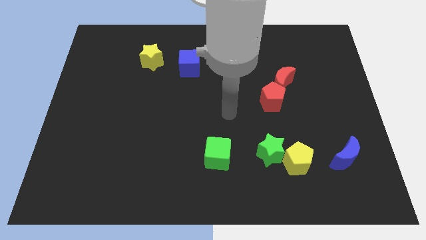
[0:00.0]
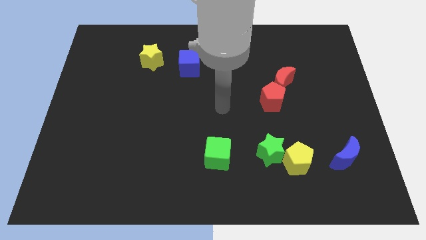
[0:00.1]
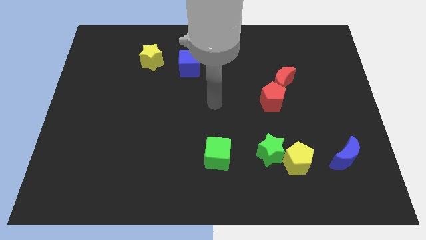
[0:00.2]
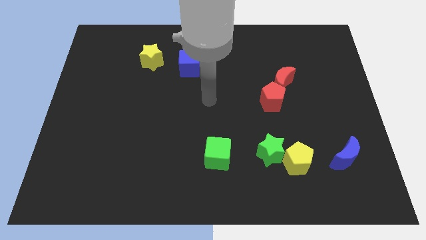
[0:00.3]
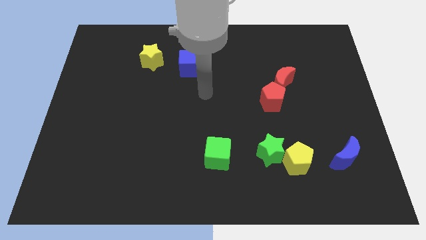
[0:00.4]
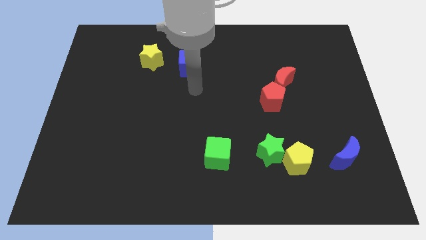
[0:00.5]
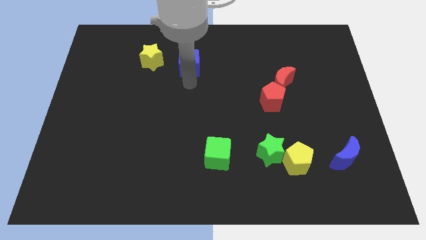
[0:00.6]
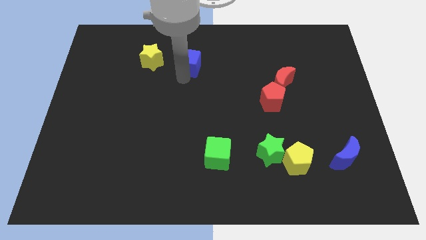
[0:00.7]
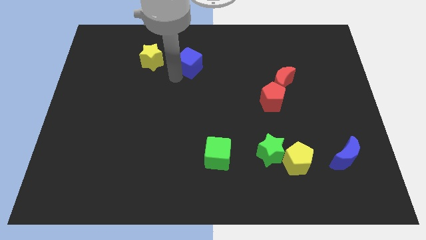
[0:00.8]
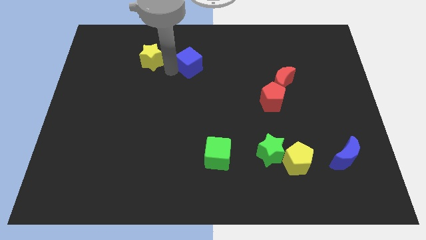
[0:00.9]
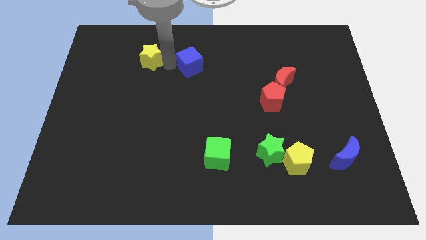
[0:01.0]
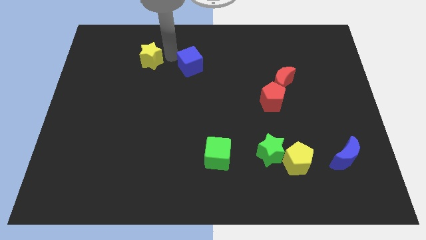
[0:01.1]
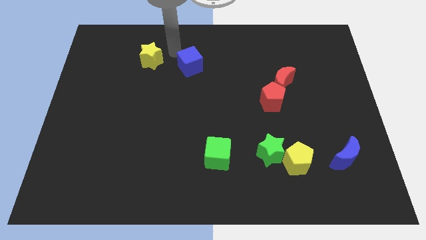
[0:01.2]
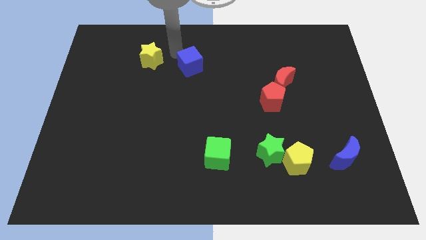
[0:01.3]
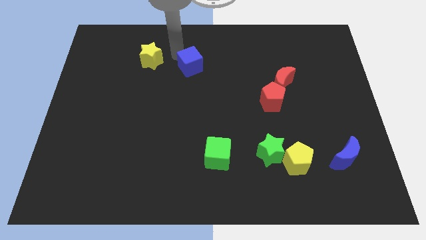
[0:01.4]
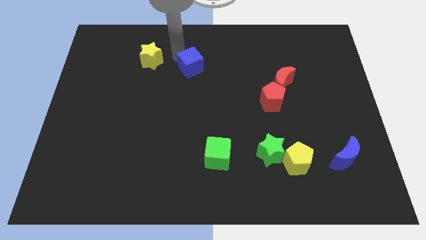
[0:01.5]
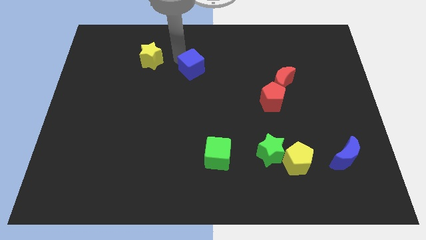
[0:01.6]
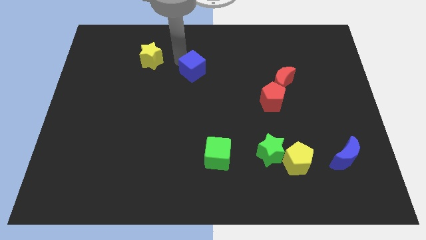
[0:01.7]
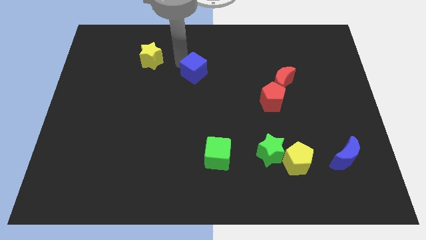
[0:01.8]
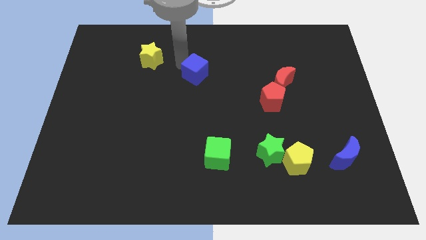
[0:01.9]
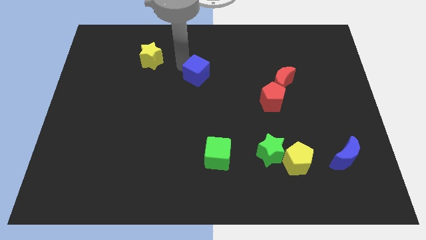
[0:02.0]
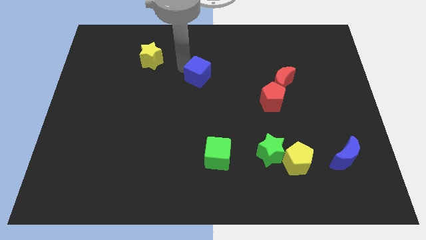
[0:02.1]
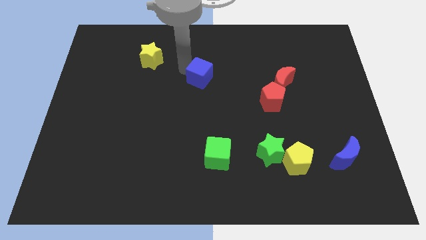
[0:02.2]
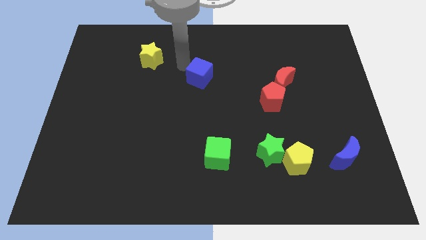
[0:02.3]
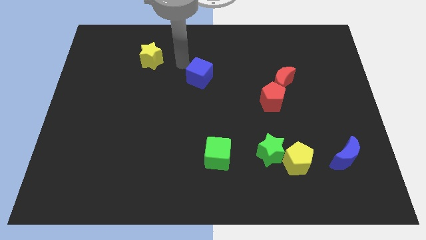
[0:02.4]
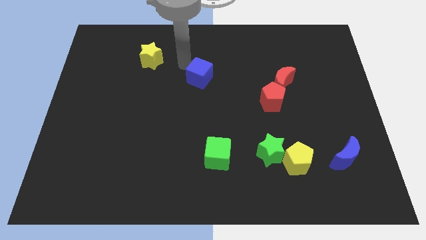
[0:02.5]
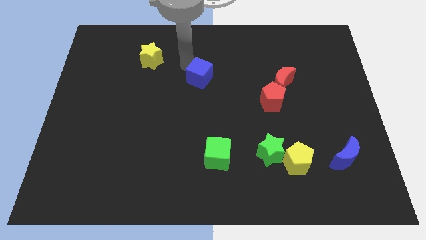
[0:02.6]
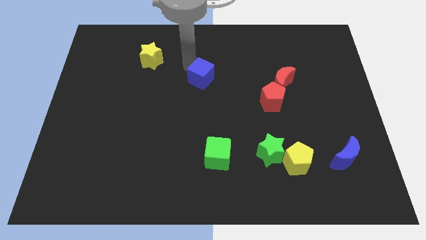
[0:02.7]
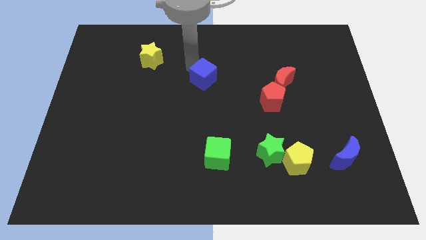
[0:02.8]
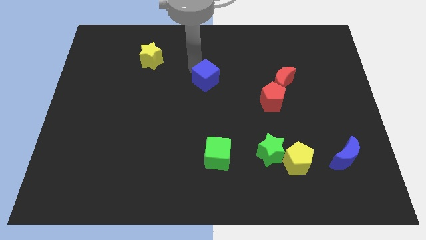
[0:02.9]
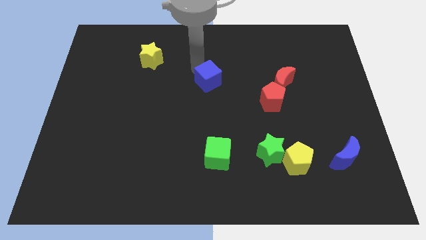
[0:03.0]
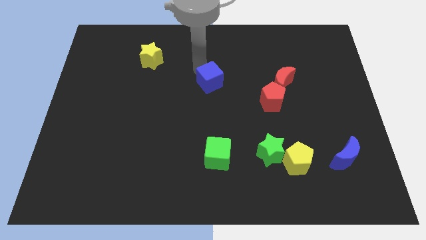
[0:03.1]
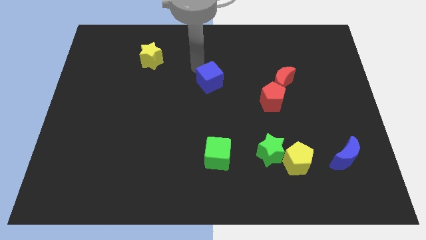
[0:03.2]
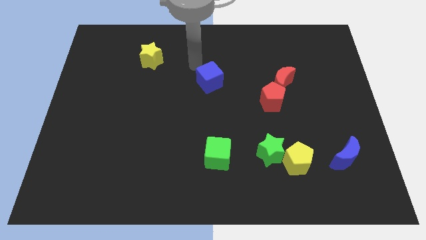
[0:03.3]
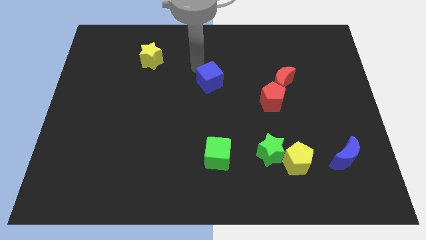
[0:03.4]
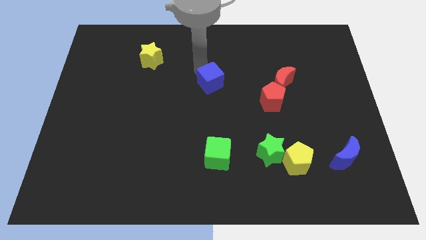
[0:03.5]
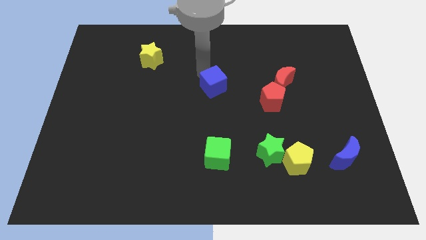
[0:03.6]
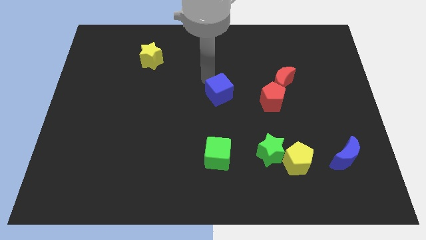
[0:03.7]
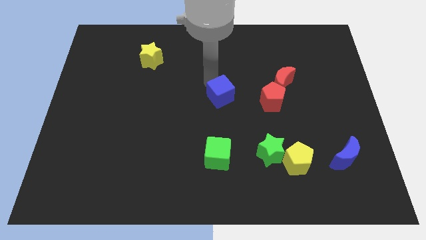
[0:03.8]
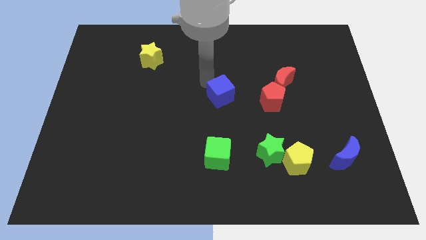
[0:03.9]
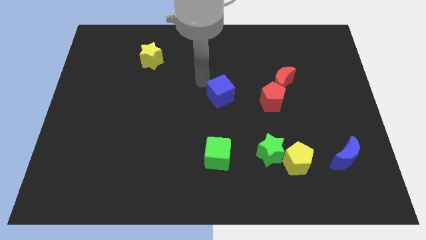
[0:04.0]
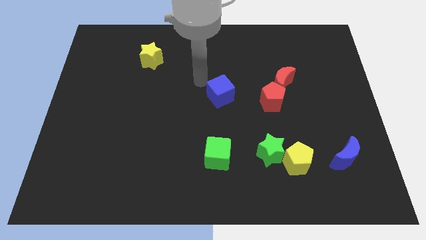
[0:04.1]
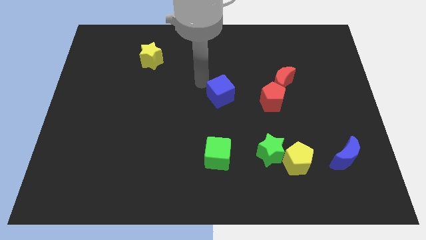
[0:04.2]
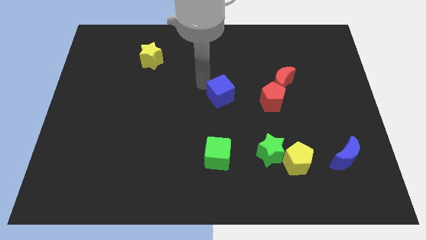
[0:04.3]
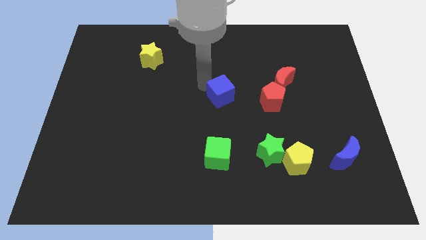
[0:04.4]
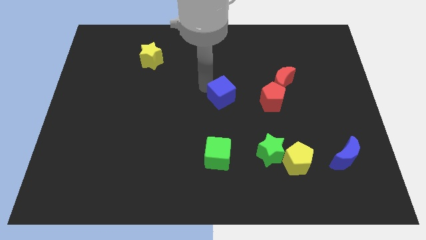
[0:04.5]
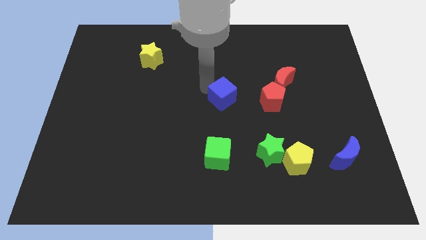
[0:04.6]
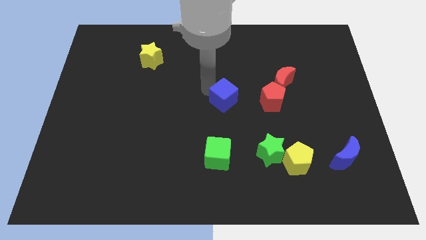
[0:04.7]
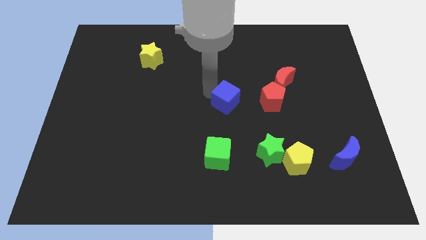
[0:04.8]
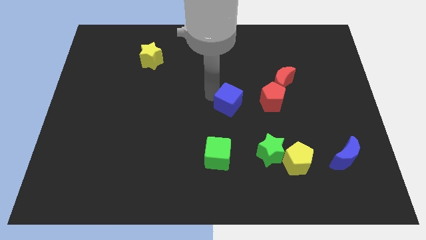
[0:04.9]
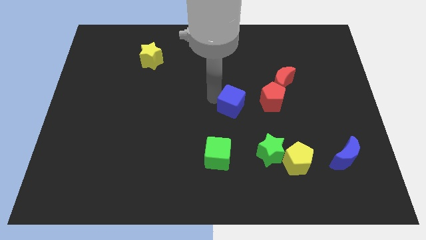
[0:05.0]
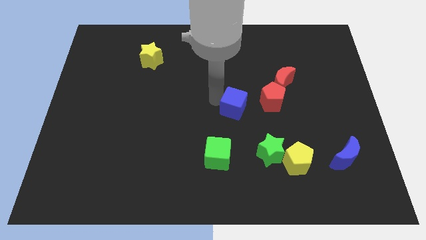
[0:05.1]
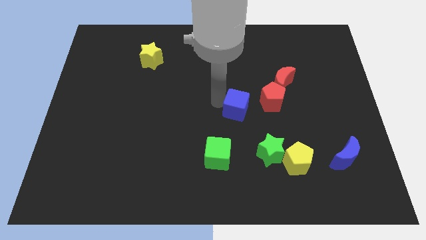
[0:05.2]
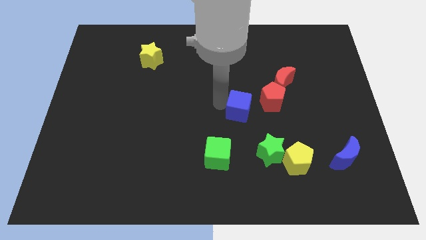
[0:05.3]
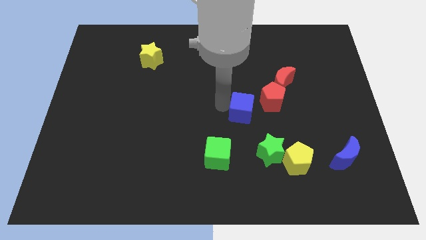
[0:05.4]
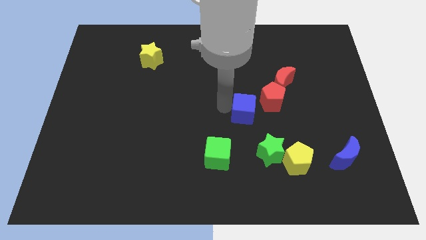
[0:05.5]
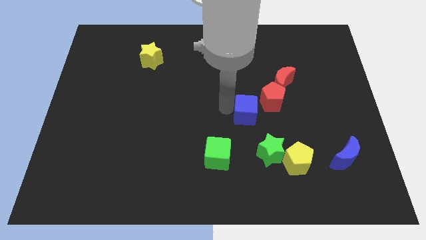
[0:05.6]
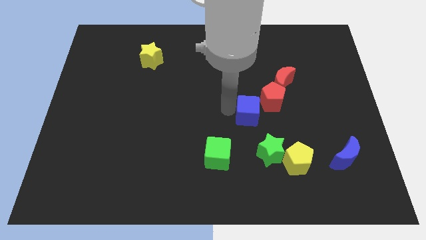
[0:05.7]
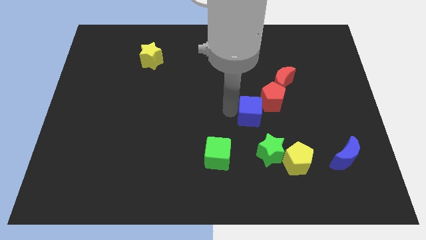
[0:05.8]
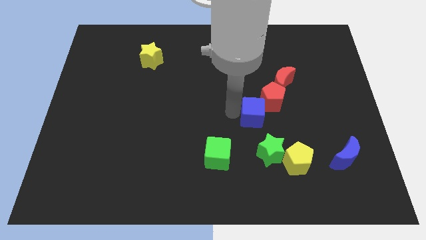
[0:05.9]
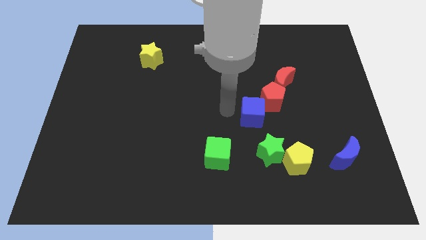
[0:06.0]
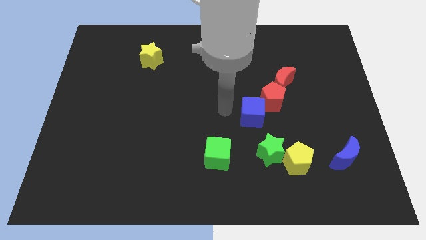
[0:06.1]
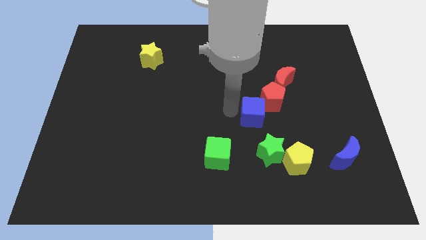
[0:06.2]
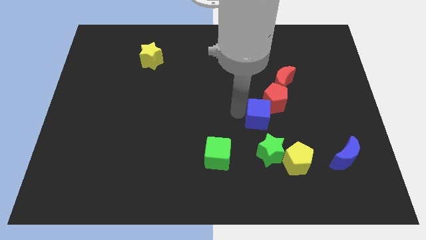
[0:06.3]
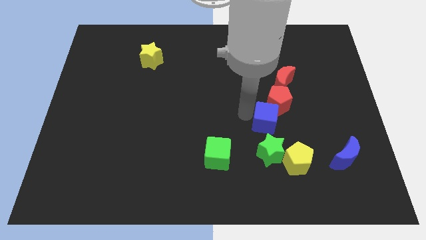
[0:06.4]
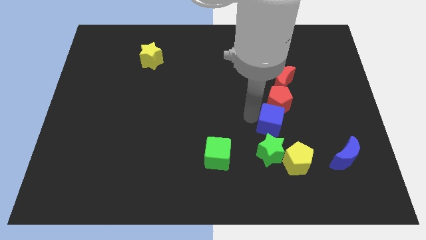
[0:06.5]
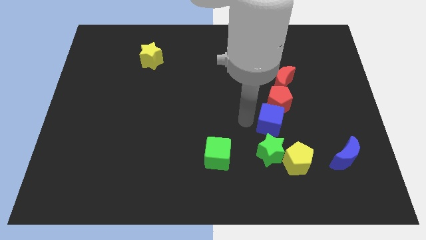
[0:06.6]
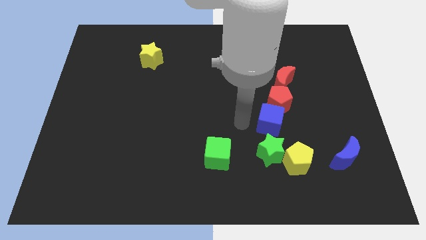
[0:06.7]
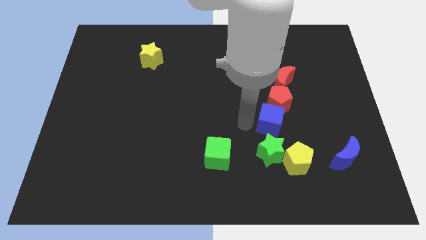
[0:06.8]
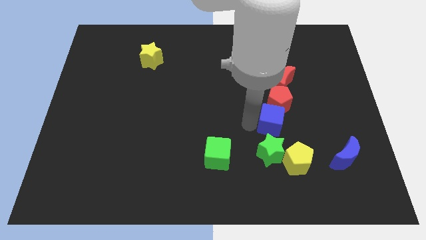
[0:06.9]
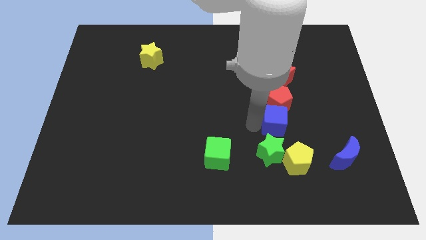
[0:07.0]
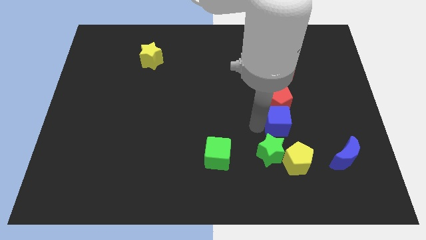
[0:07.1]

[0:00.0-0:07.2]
slide the blue cube diagonally down and to the right of the red pentagon
